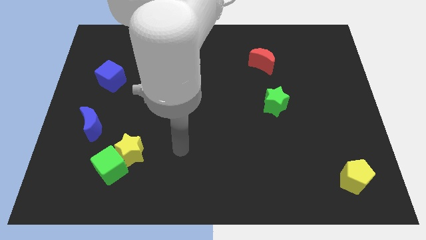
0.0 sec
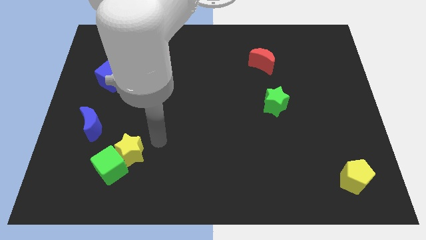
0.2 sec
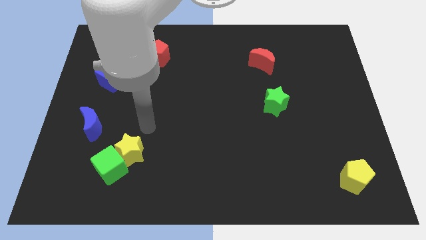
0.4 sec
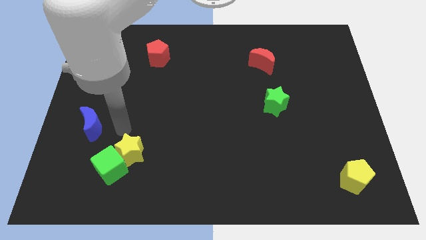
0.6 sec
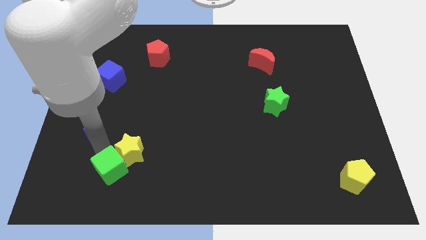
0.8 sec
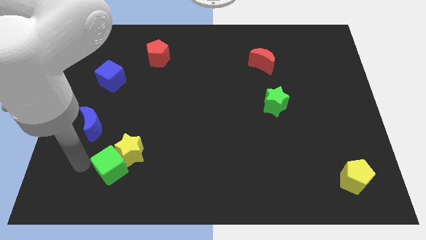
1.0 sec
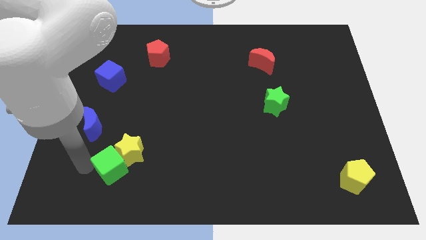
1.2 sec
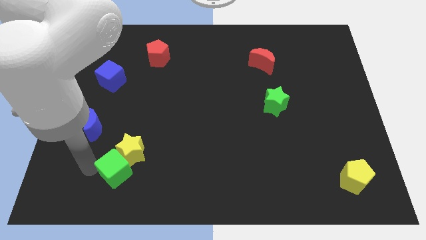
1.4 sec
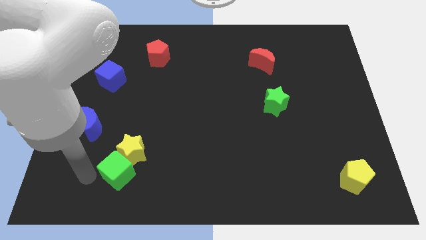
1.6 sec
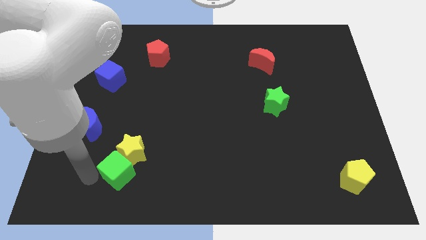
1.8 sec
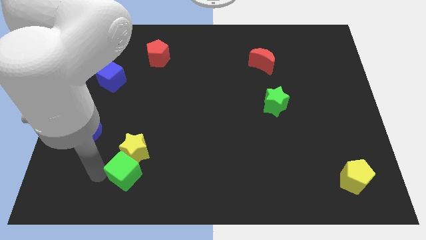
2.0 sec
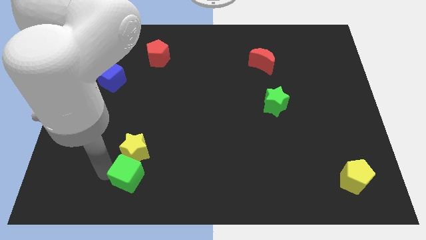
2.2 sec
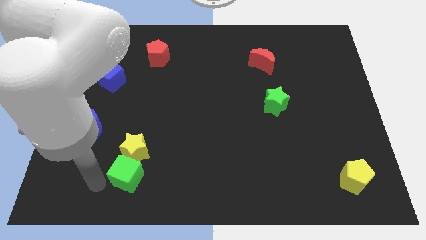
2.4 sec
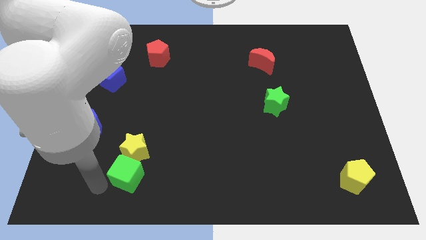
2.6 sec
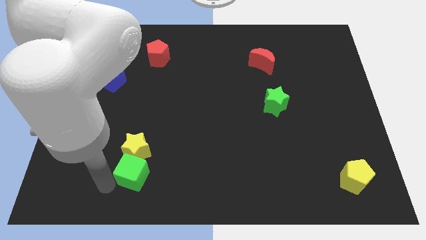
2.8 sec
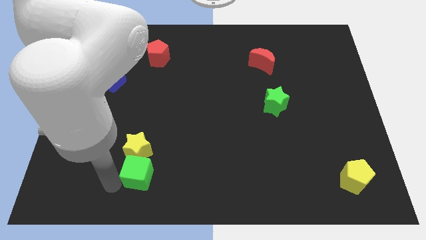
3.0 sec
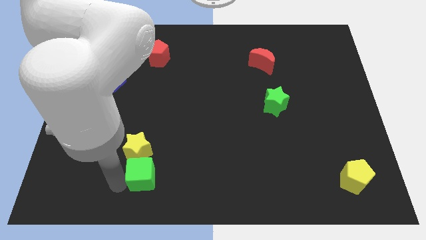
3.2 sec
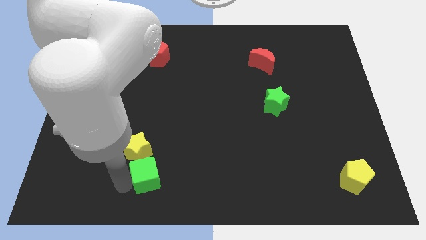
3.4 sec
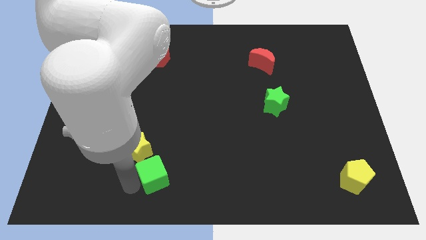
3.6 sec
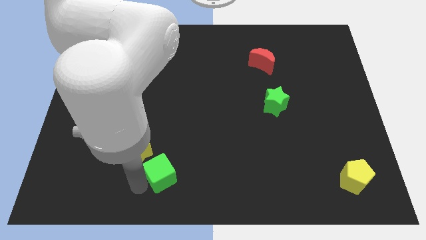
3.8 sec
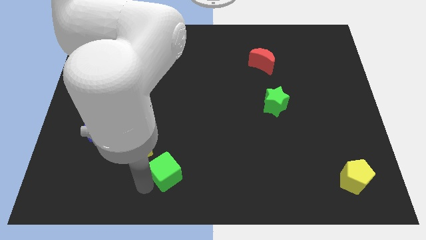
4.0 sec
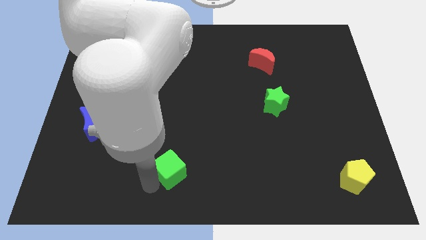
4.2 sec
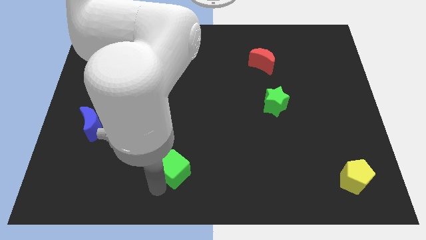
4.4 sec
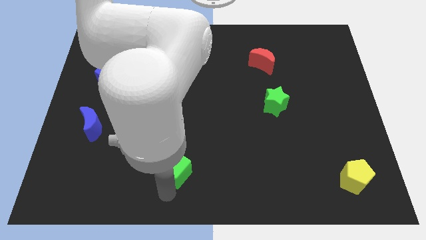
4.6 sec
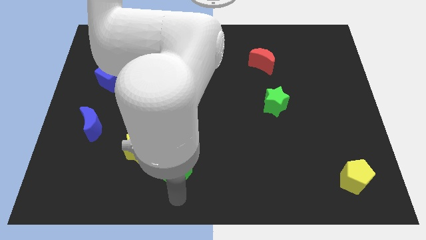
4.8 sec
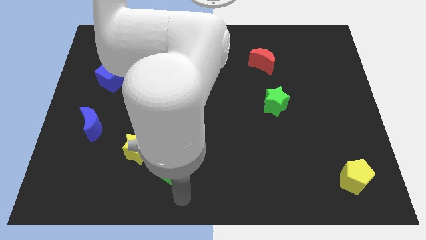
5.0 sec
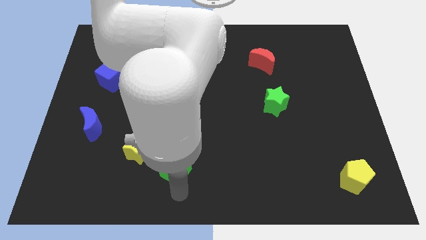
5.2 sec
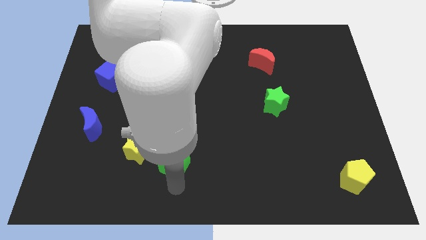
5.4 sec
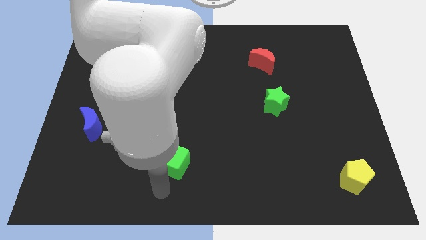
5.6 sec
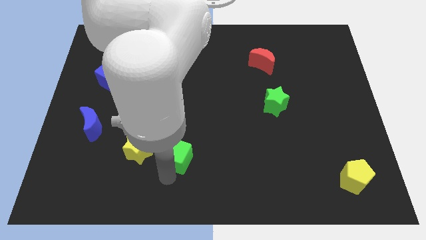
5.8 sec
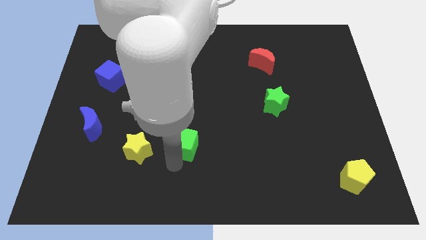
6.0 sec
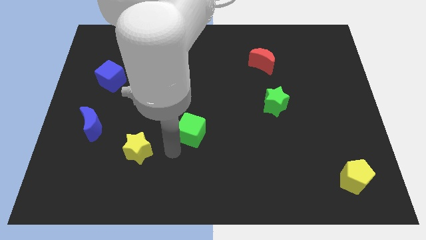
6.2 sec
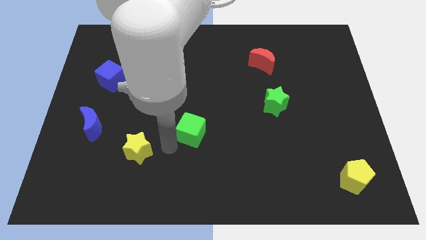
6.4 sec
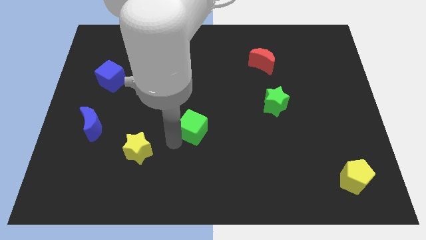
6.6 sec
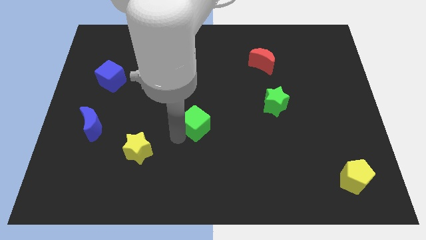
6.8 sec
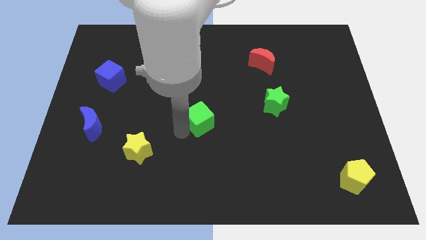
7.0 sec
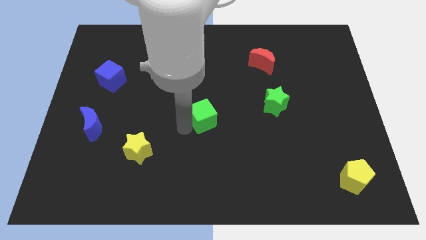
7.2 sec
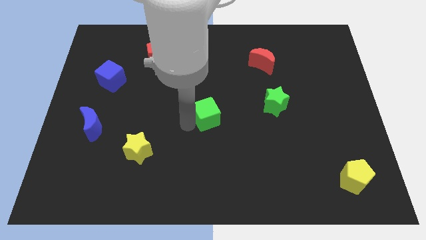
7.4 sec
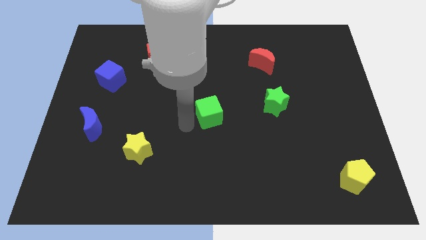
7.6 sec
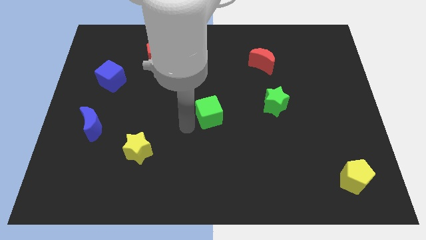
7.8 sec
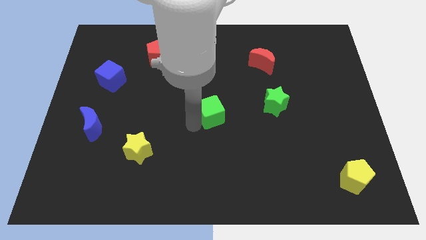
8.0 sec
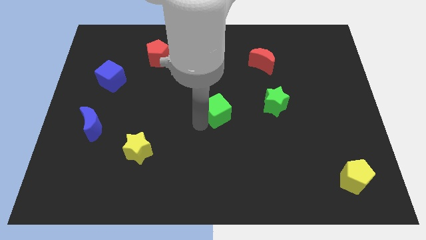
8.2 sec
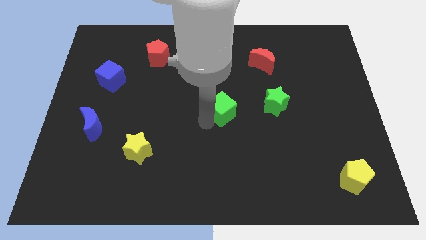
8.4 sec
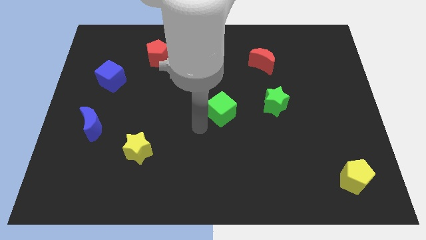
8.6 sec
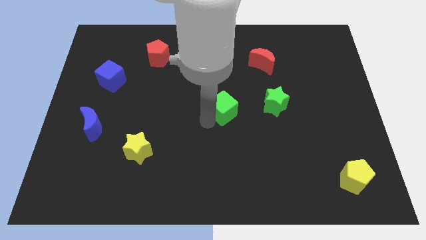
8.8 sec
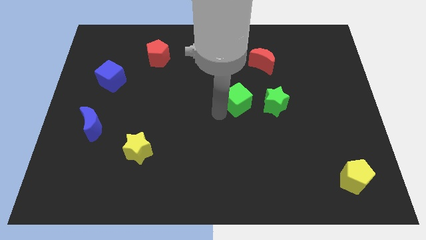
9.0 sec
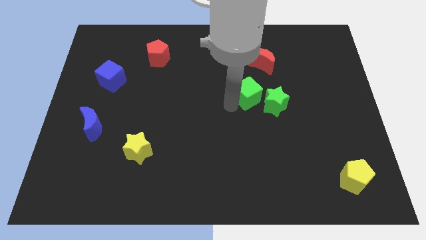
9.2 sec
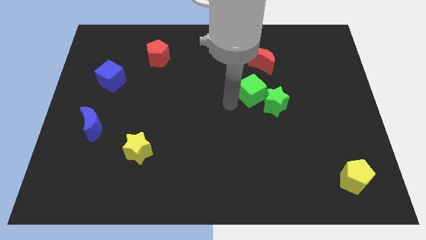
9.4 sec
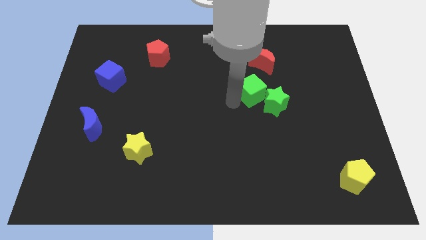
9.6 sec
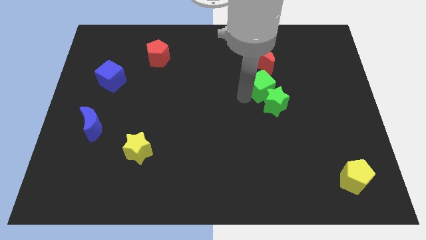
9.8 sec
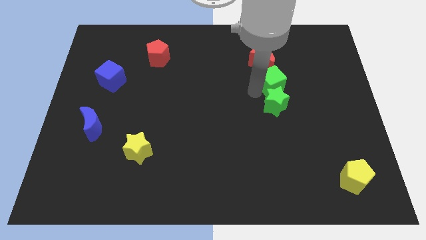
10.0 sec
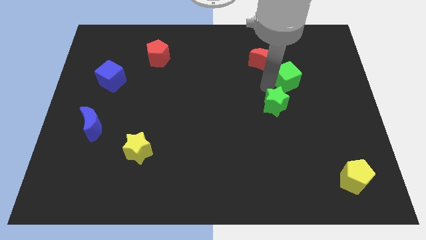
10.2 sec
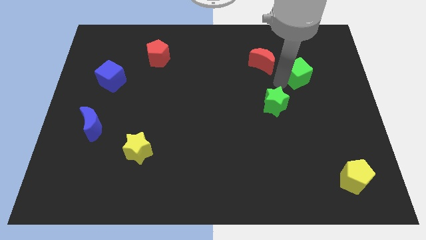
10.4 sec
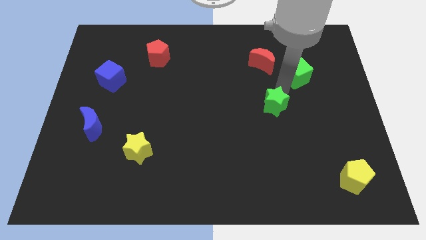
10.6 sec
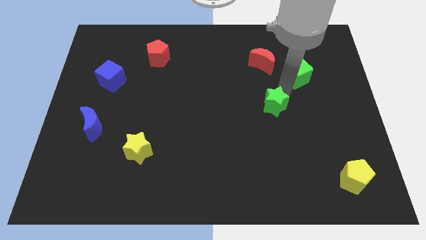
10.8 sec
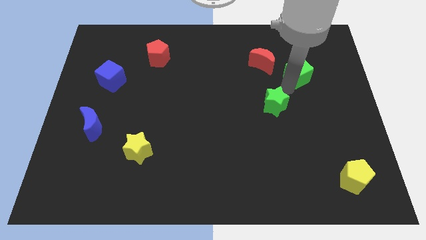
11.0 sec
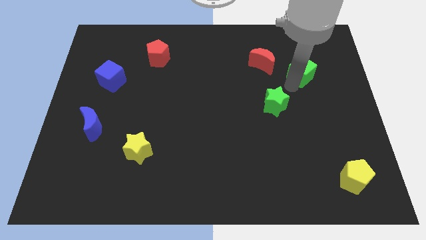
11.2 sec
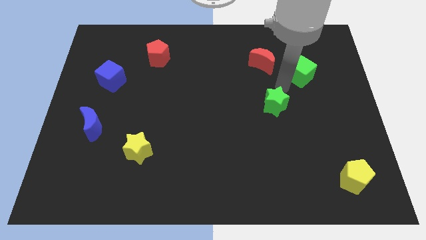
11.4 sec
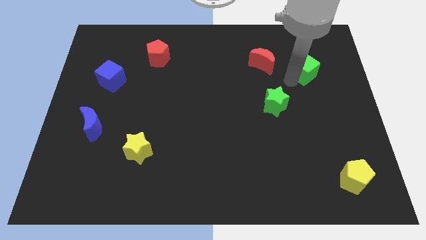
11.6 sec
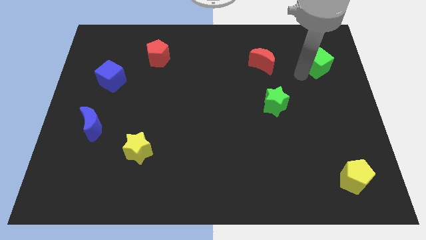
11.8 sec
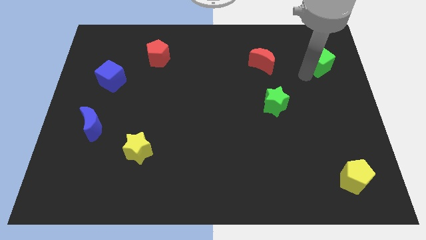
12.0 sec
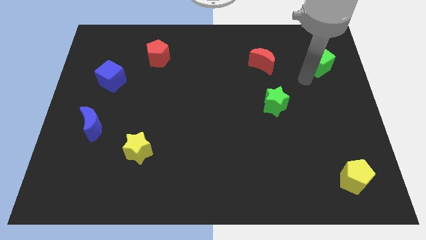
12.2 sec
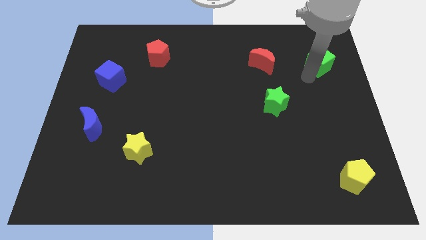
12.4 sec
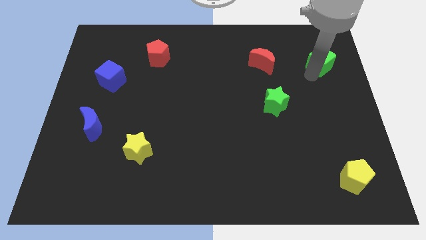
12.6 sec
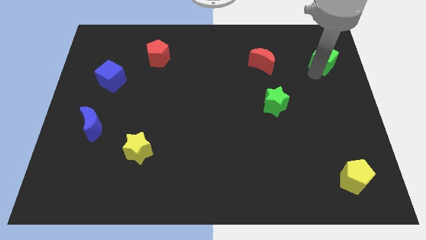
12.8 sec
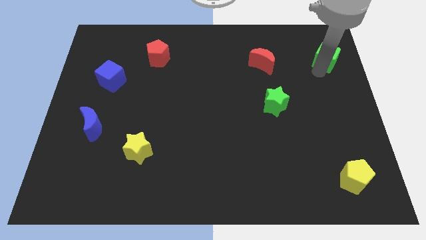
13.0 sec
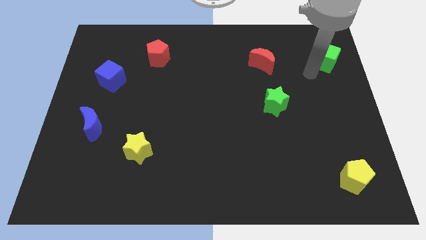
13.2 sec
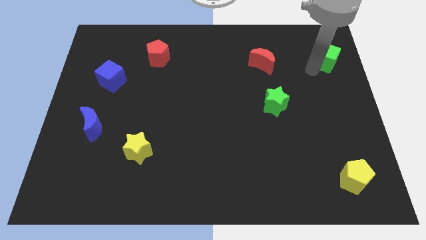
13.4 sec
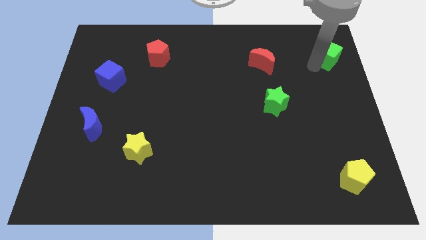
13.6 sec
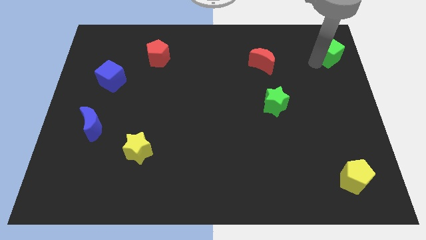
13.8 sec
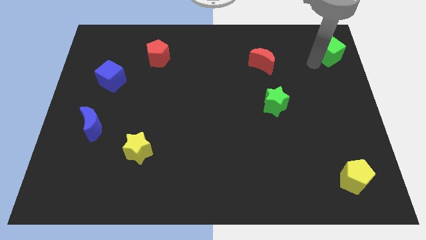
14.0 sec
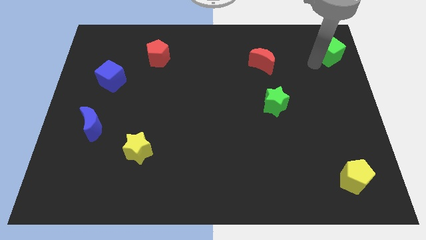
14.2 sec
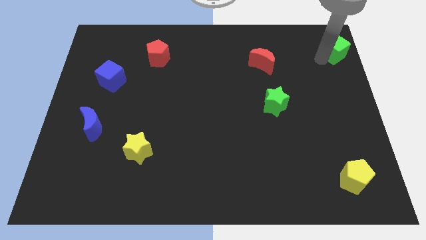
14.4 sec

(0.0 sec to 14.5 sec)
put the green cube to the top right
